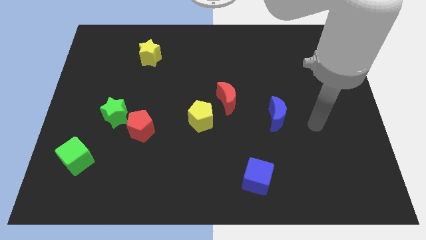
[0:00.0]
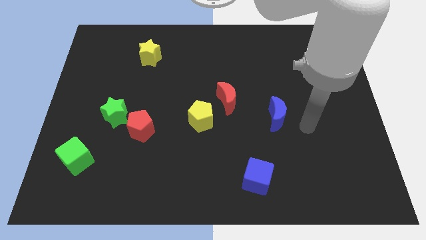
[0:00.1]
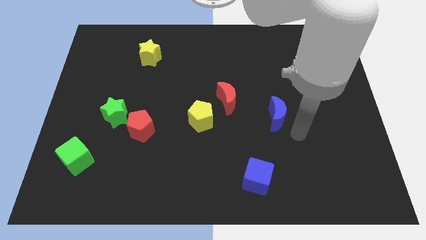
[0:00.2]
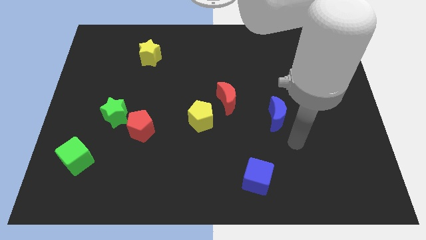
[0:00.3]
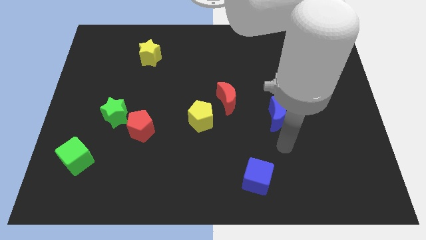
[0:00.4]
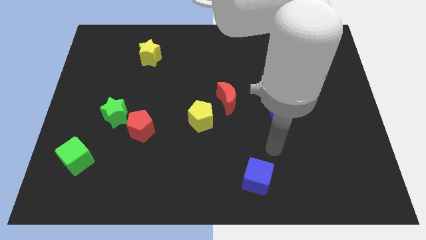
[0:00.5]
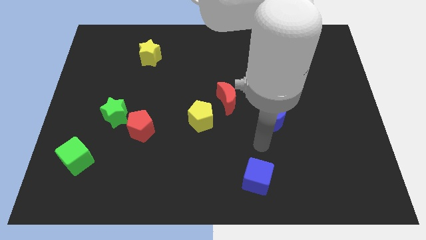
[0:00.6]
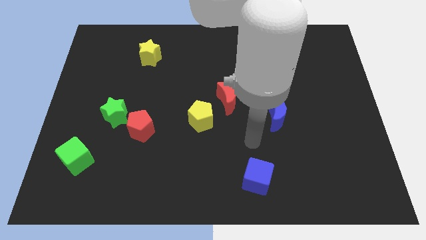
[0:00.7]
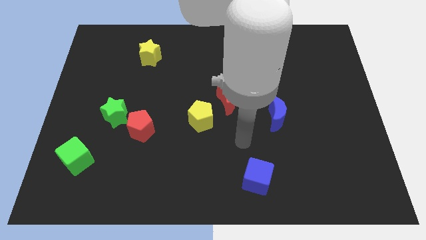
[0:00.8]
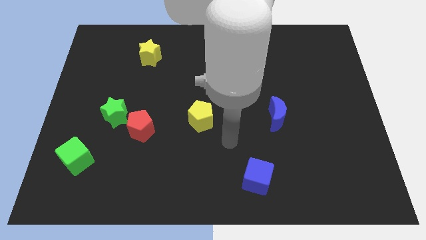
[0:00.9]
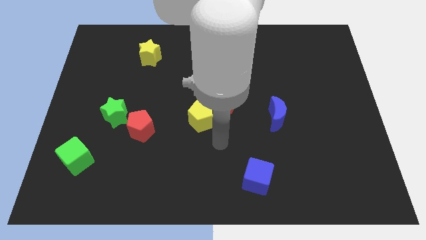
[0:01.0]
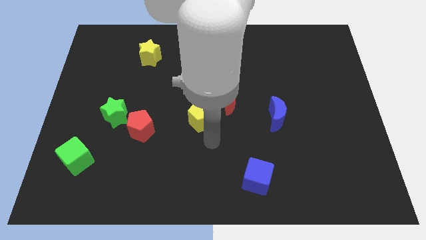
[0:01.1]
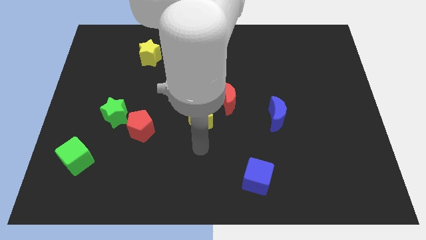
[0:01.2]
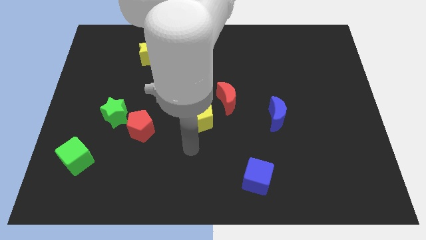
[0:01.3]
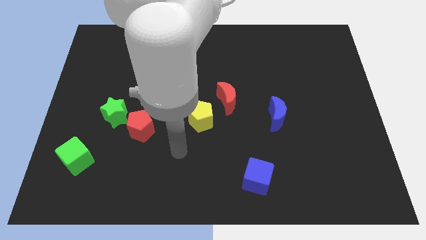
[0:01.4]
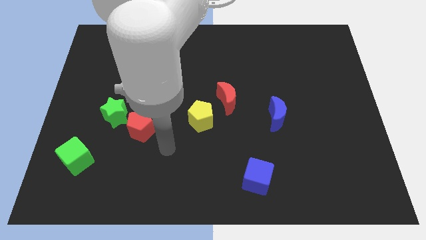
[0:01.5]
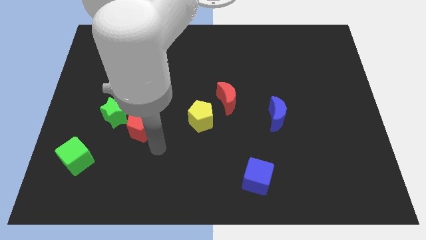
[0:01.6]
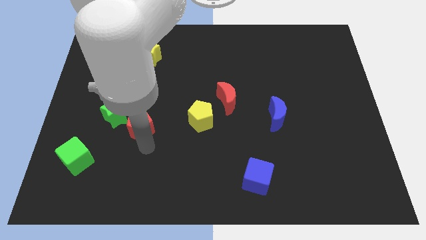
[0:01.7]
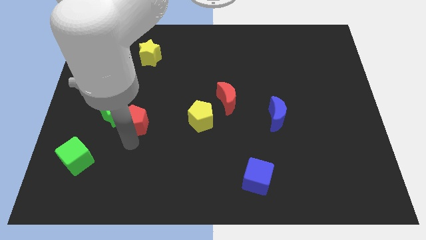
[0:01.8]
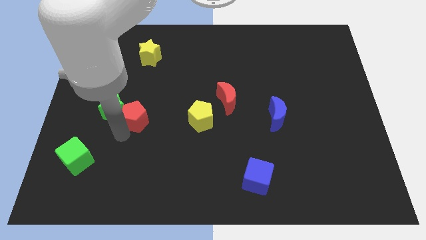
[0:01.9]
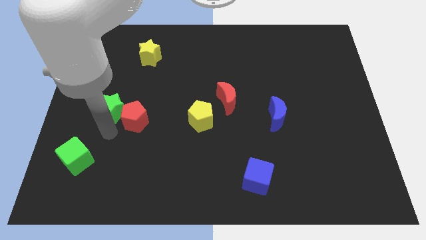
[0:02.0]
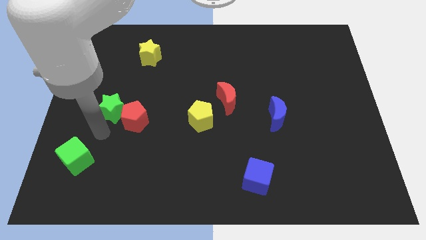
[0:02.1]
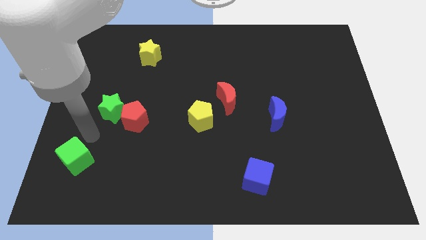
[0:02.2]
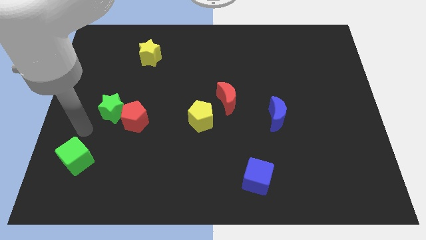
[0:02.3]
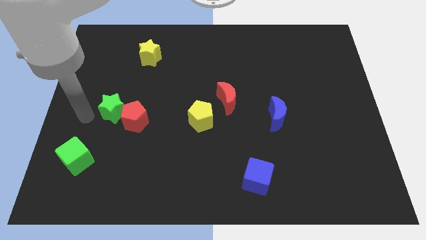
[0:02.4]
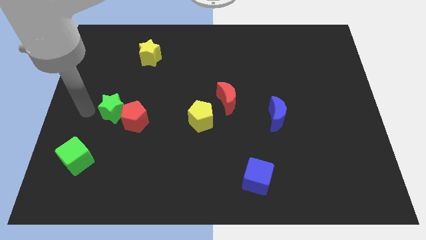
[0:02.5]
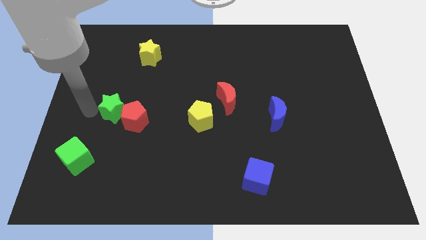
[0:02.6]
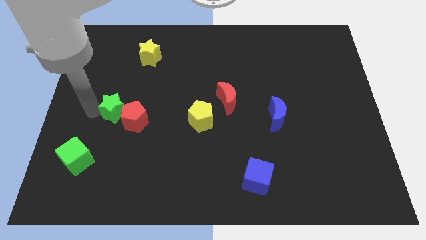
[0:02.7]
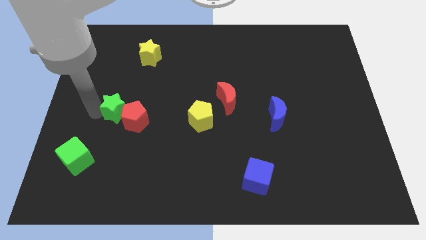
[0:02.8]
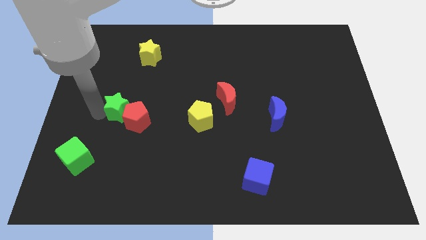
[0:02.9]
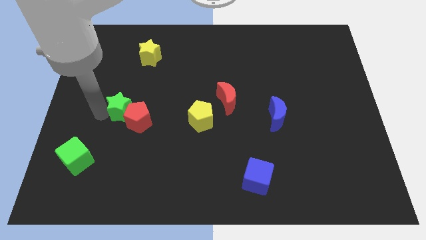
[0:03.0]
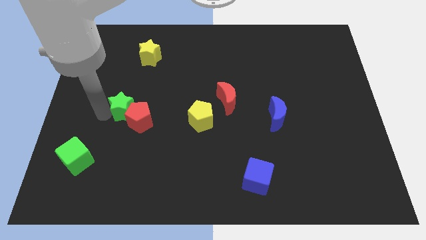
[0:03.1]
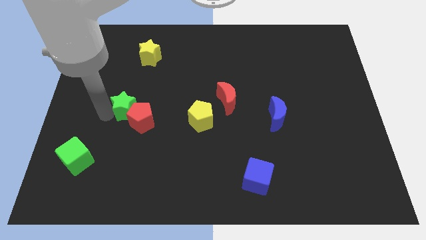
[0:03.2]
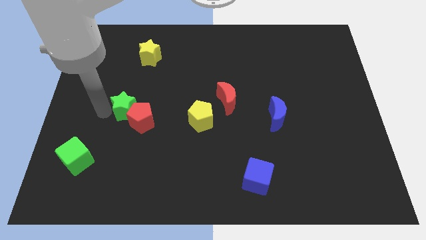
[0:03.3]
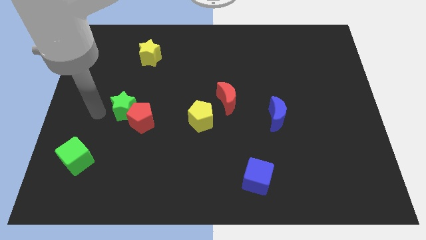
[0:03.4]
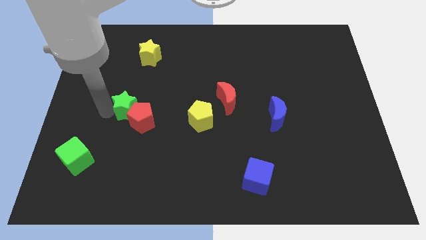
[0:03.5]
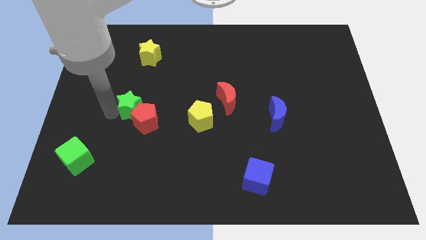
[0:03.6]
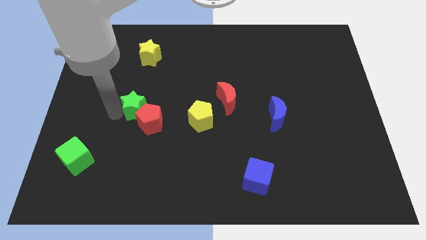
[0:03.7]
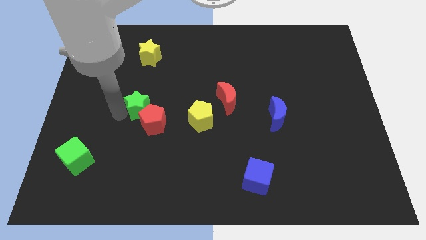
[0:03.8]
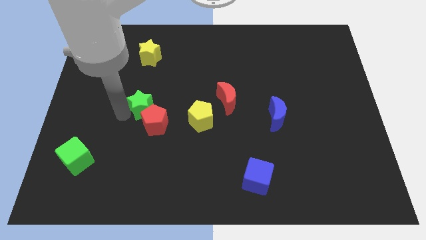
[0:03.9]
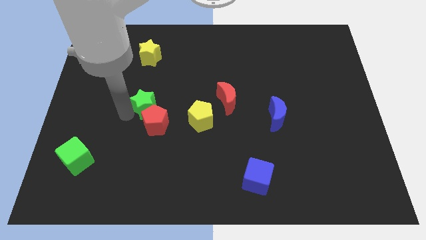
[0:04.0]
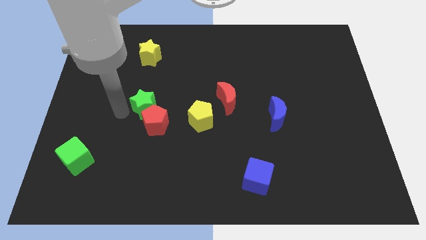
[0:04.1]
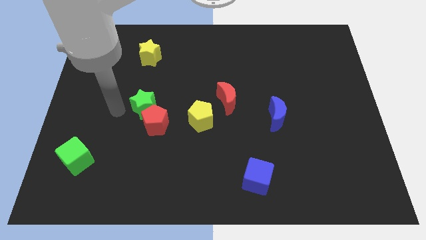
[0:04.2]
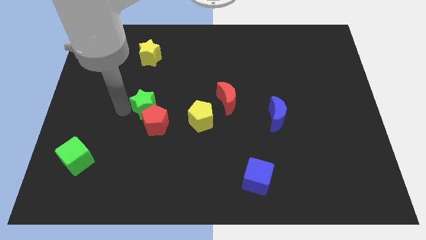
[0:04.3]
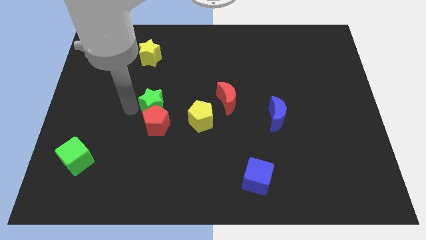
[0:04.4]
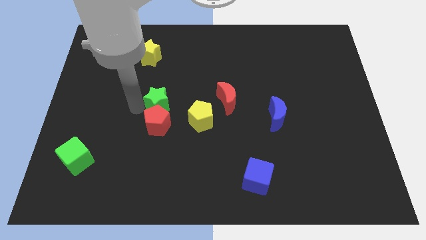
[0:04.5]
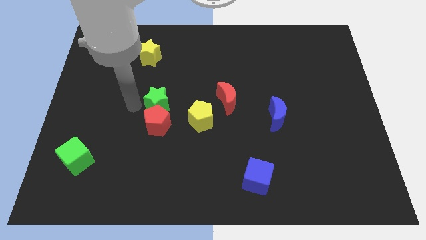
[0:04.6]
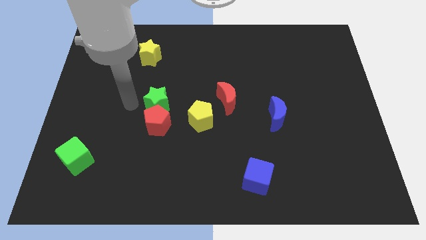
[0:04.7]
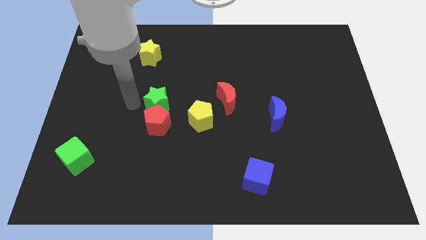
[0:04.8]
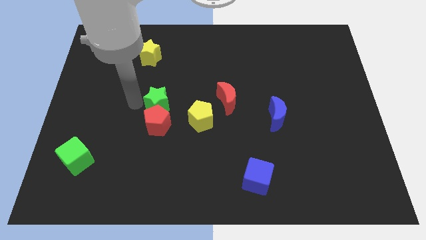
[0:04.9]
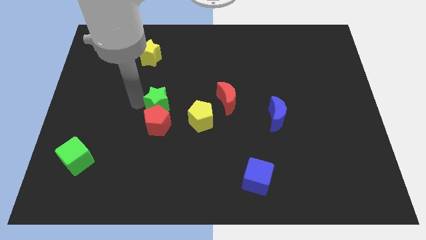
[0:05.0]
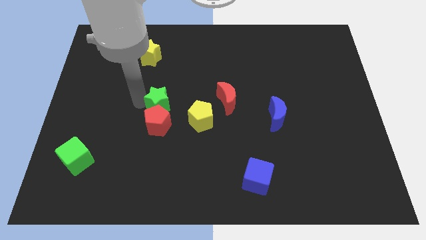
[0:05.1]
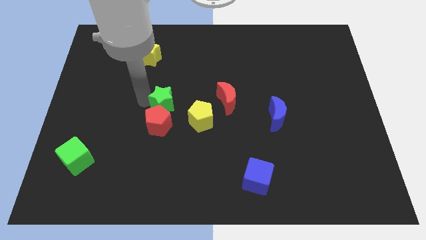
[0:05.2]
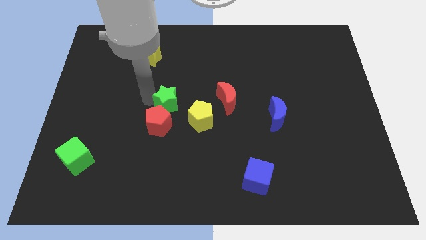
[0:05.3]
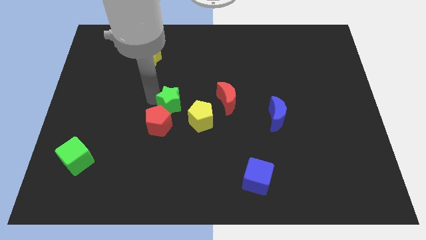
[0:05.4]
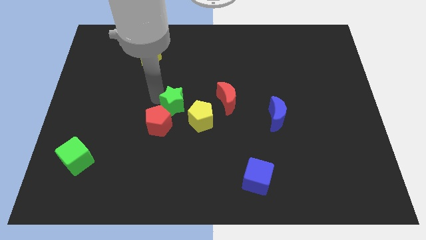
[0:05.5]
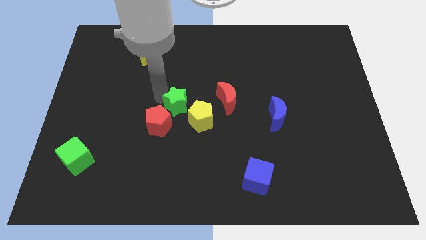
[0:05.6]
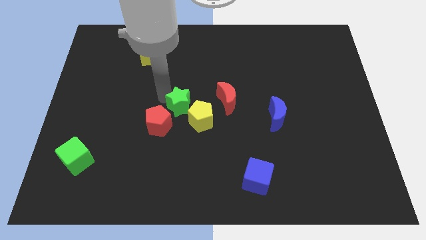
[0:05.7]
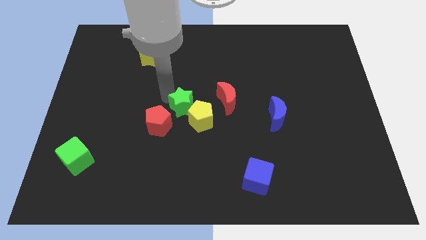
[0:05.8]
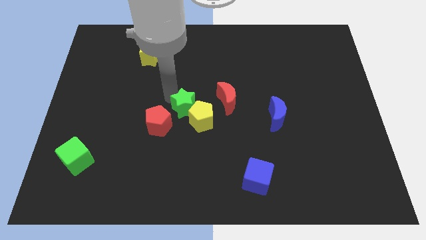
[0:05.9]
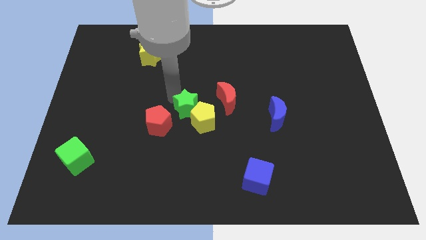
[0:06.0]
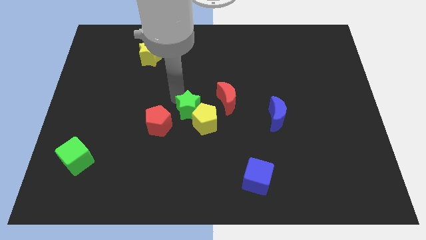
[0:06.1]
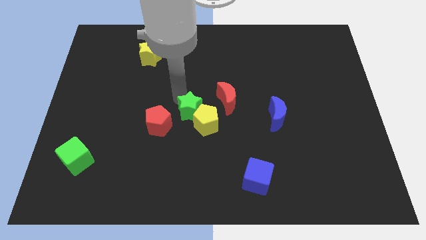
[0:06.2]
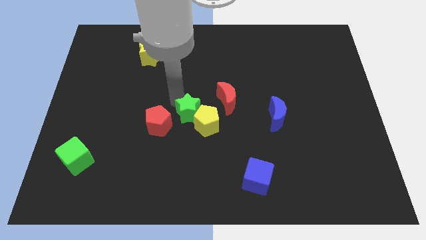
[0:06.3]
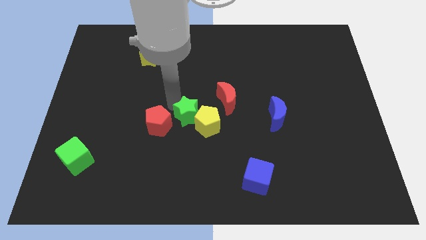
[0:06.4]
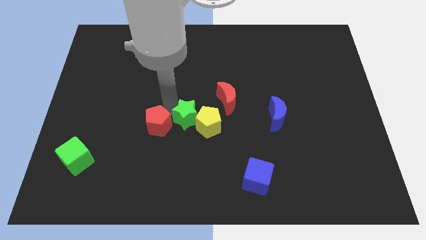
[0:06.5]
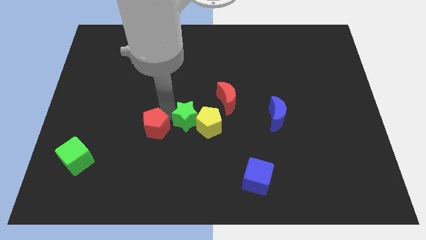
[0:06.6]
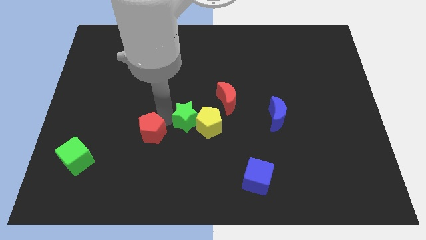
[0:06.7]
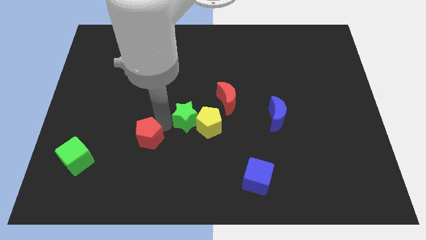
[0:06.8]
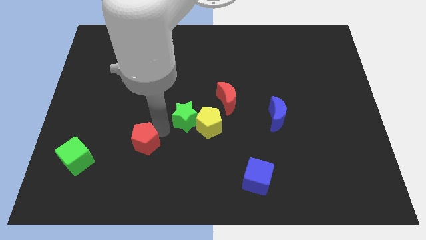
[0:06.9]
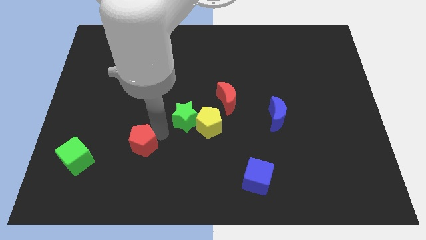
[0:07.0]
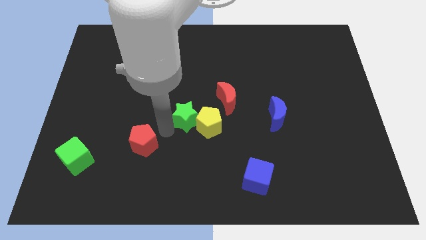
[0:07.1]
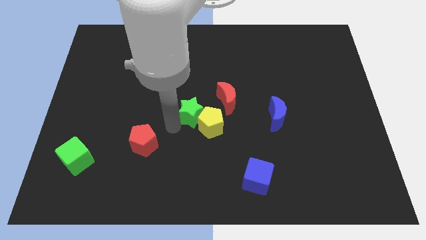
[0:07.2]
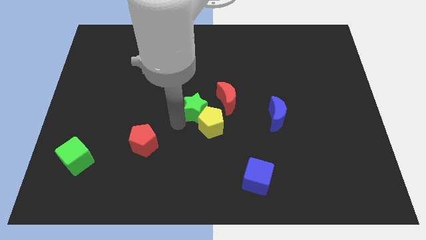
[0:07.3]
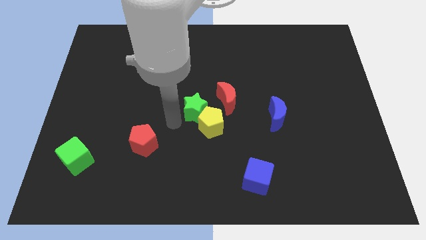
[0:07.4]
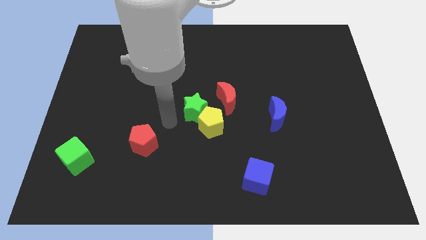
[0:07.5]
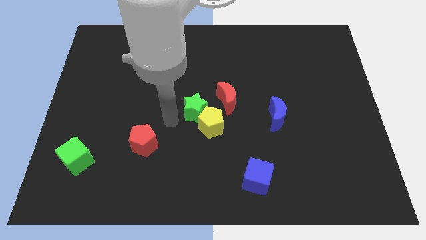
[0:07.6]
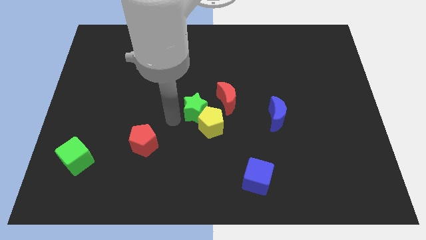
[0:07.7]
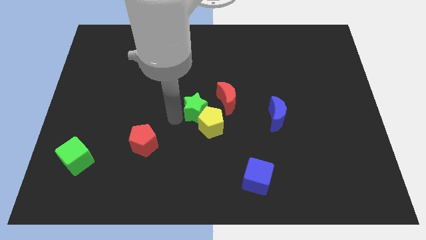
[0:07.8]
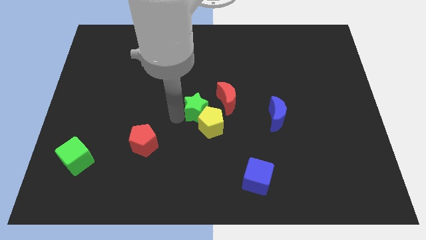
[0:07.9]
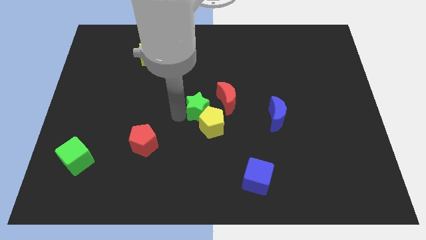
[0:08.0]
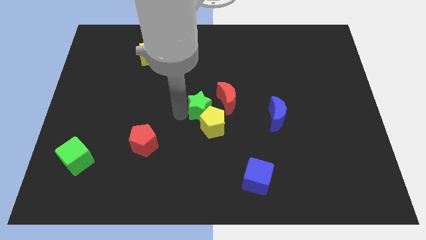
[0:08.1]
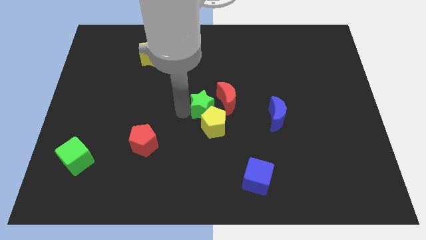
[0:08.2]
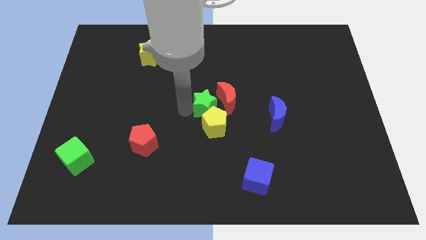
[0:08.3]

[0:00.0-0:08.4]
put the green star close to the red moon
